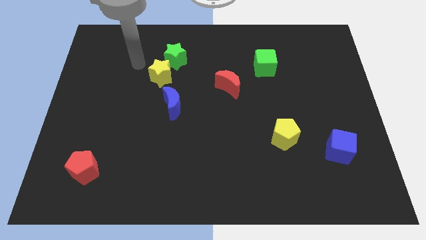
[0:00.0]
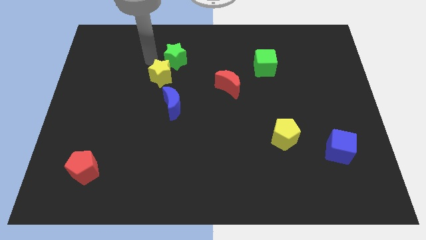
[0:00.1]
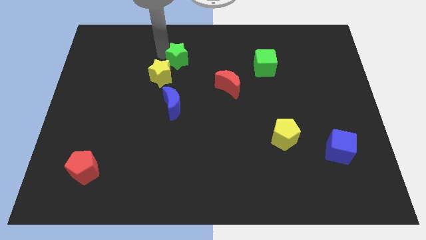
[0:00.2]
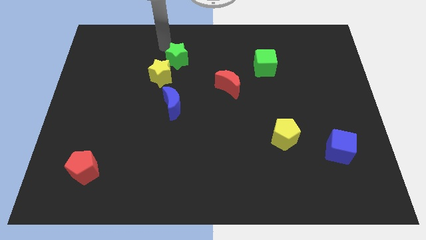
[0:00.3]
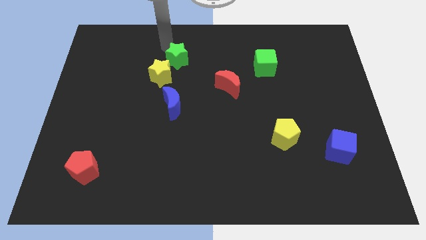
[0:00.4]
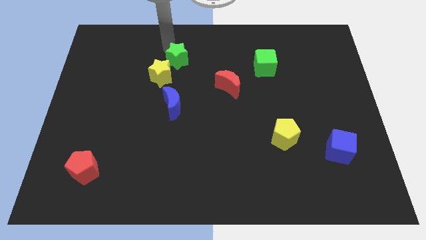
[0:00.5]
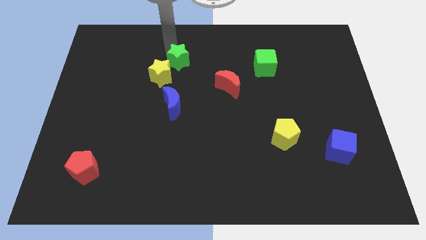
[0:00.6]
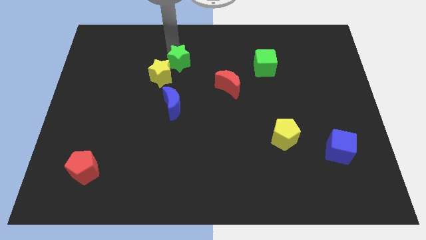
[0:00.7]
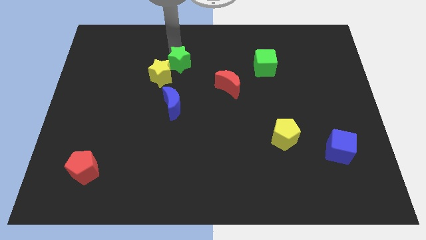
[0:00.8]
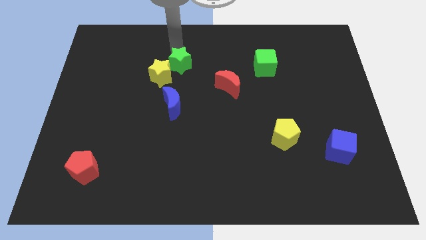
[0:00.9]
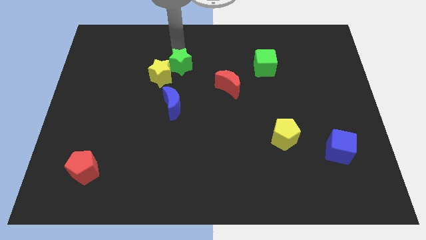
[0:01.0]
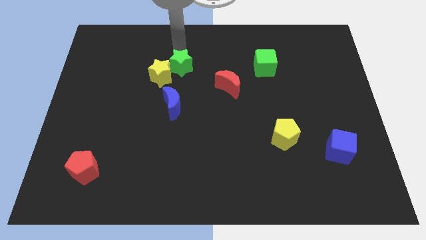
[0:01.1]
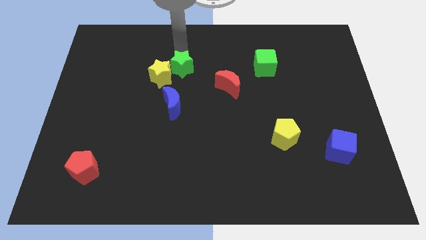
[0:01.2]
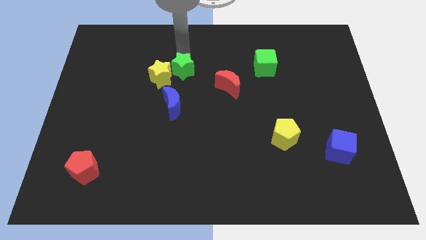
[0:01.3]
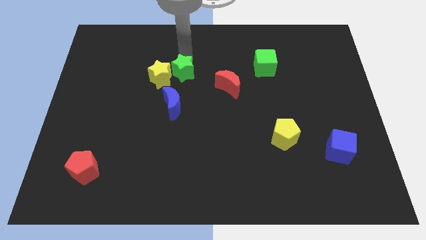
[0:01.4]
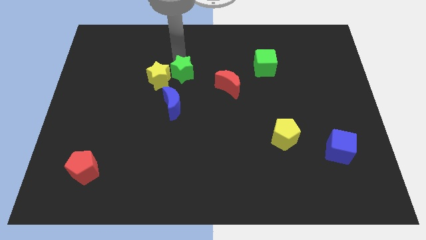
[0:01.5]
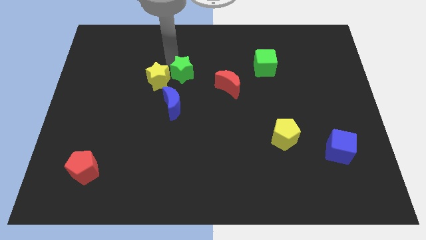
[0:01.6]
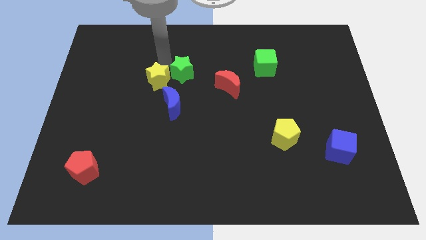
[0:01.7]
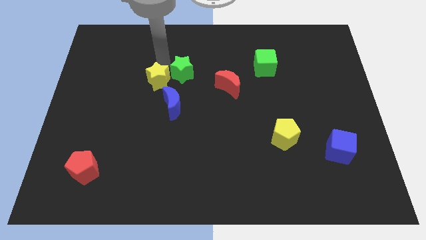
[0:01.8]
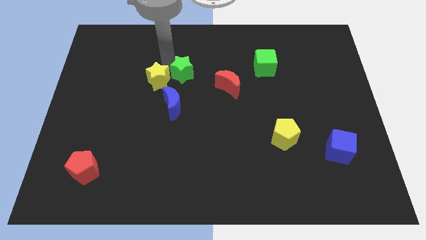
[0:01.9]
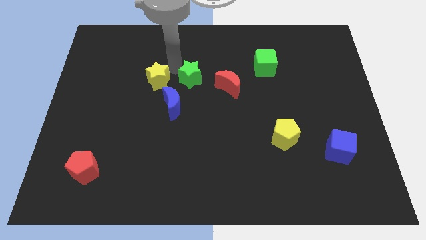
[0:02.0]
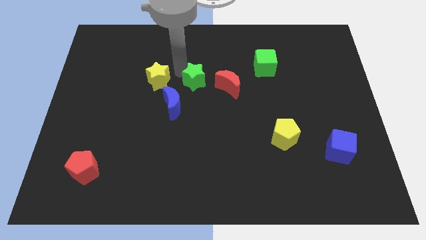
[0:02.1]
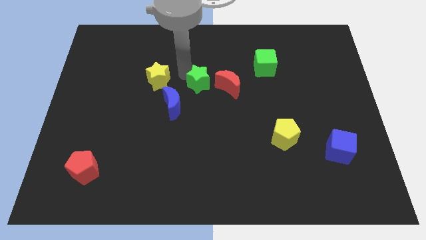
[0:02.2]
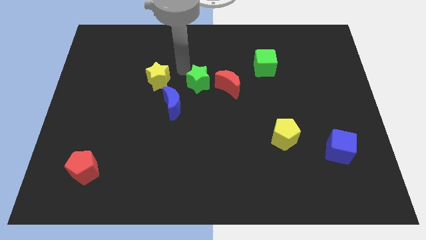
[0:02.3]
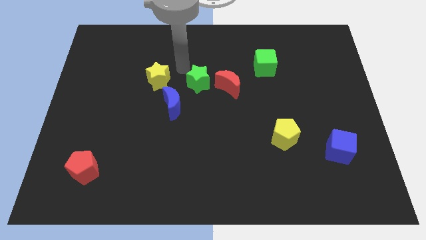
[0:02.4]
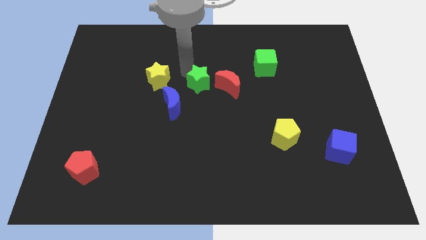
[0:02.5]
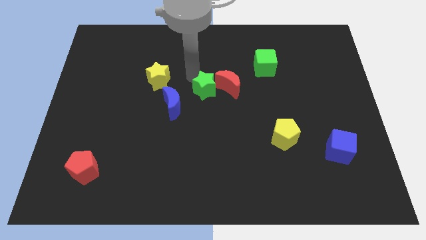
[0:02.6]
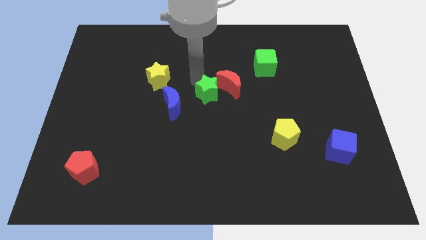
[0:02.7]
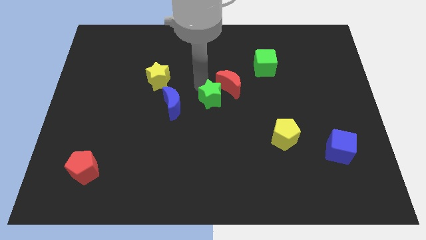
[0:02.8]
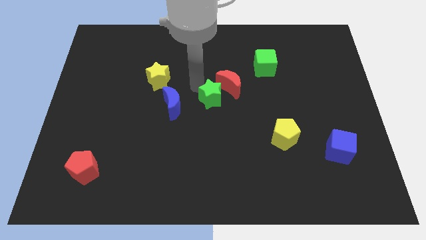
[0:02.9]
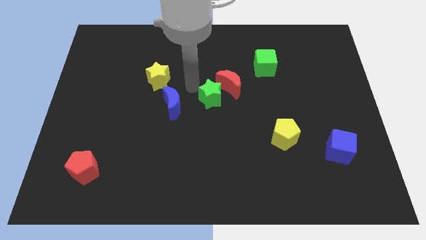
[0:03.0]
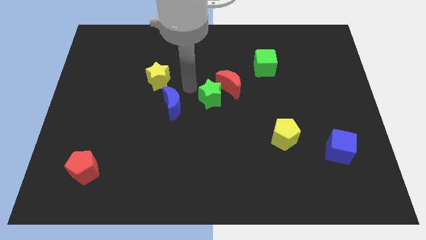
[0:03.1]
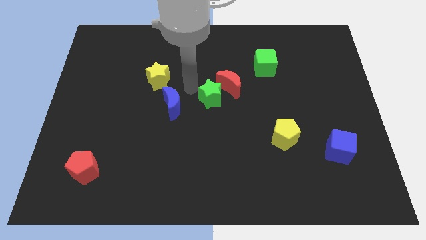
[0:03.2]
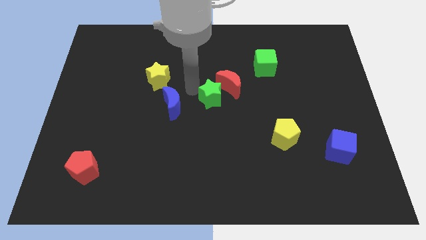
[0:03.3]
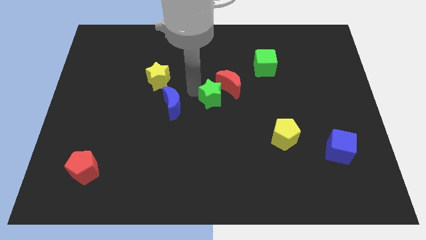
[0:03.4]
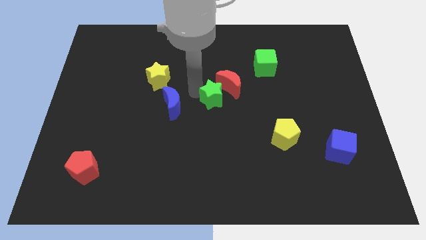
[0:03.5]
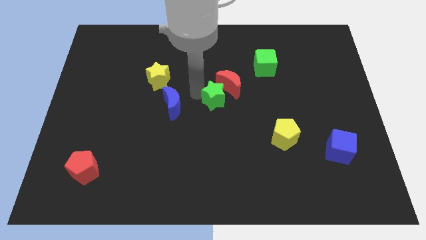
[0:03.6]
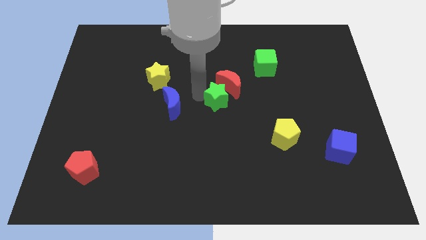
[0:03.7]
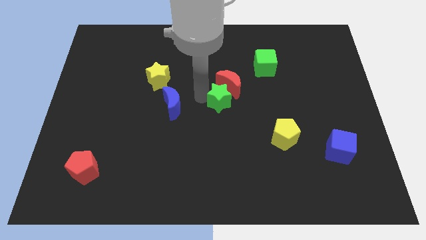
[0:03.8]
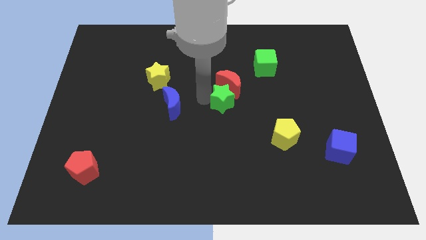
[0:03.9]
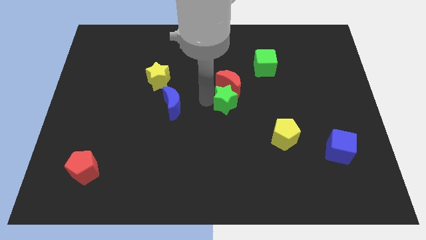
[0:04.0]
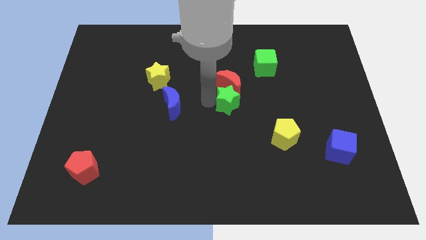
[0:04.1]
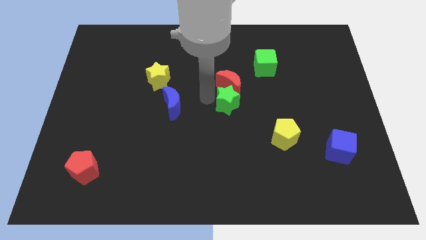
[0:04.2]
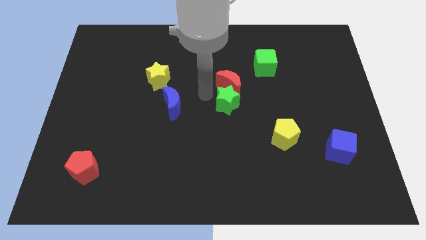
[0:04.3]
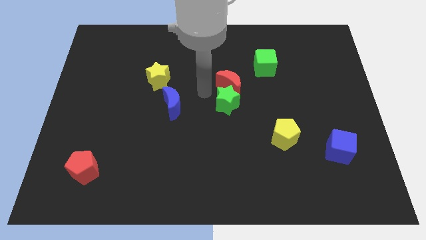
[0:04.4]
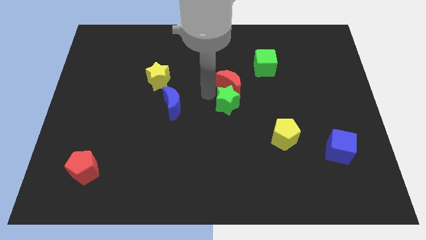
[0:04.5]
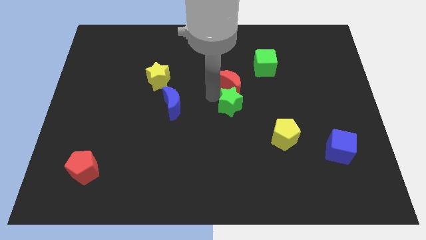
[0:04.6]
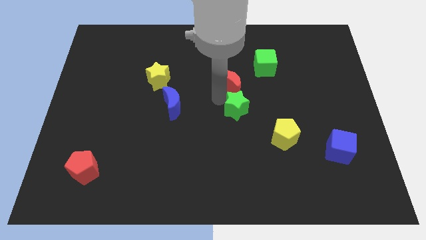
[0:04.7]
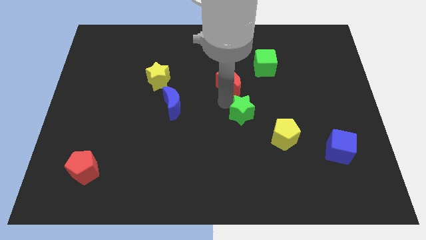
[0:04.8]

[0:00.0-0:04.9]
slide the green star diagonally up and to the left of the yellow pentagon

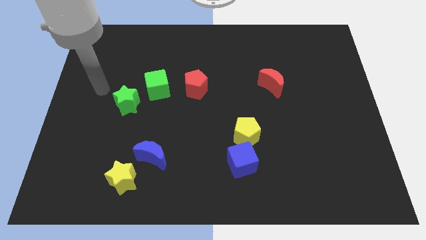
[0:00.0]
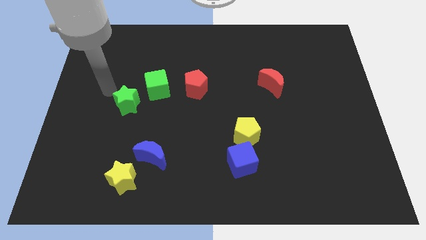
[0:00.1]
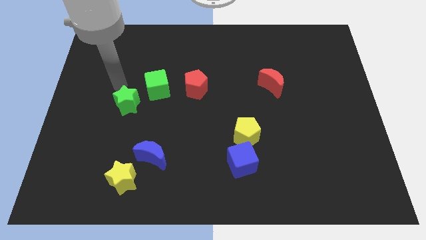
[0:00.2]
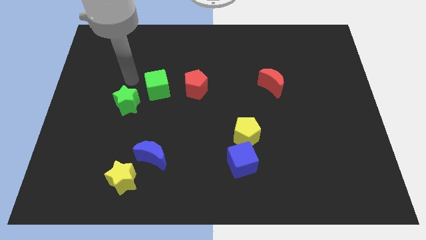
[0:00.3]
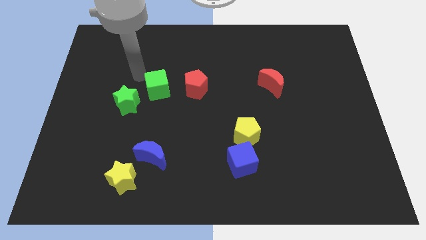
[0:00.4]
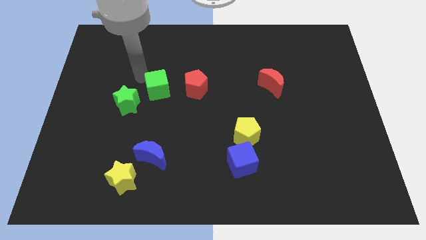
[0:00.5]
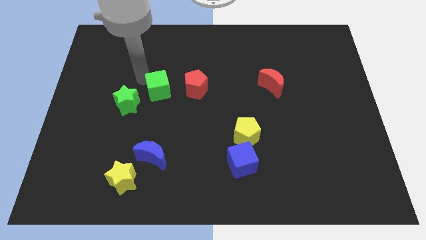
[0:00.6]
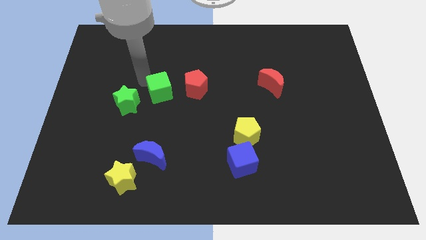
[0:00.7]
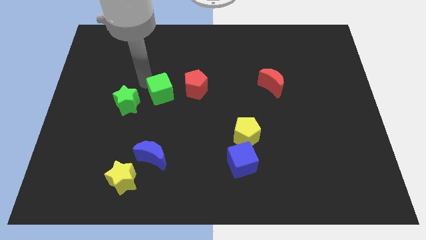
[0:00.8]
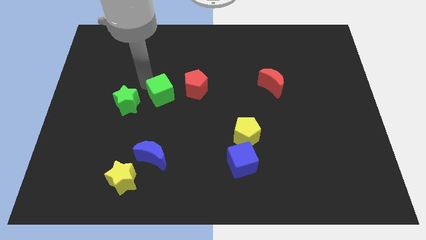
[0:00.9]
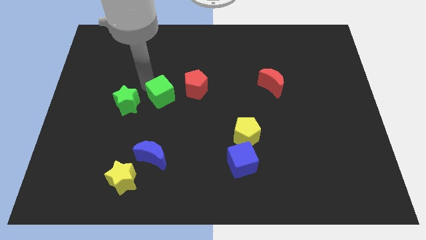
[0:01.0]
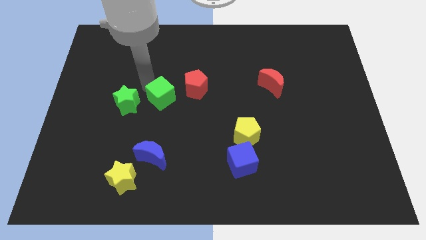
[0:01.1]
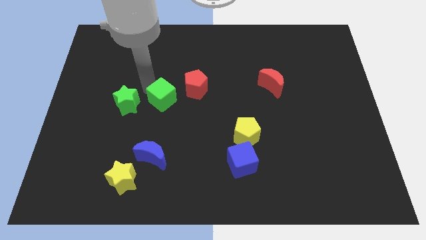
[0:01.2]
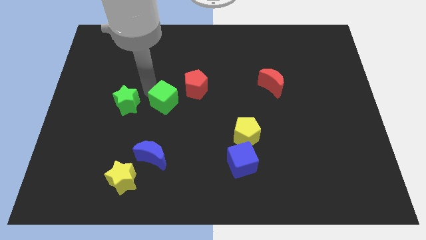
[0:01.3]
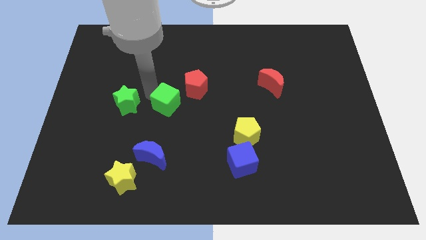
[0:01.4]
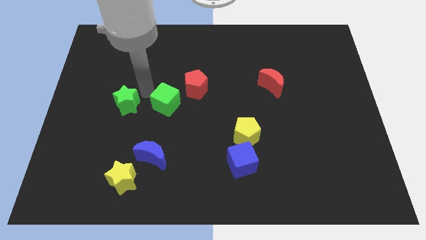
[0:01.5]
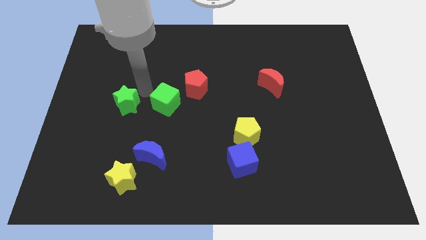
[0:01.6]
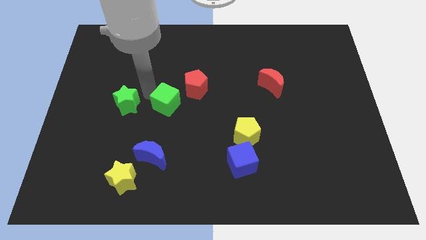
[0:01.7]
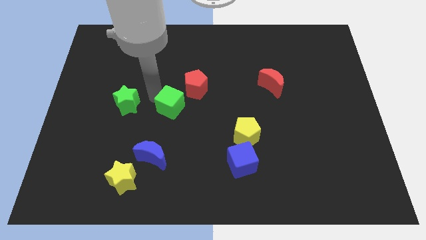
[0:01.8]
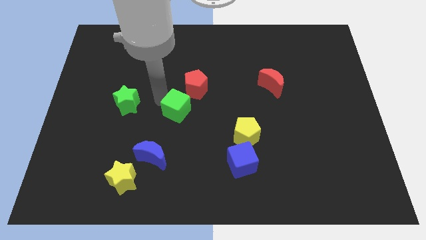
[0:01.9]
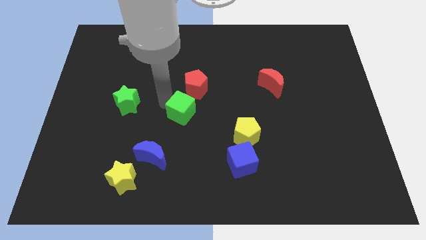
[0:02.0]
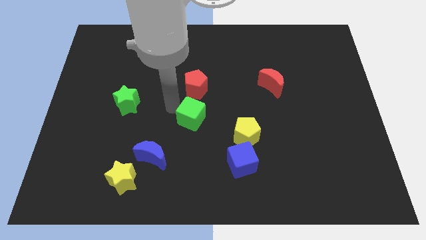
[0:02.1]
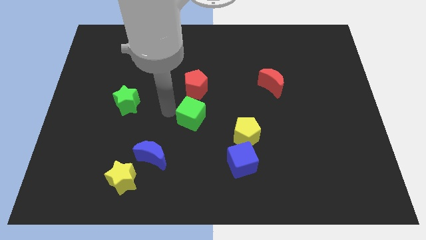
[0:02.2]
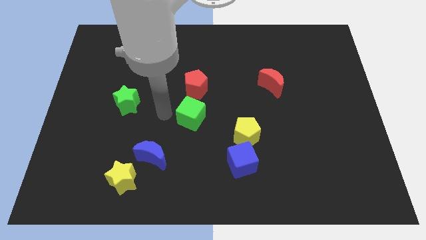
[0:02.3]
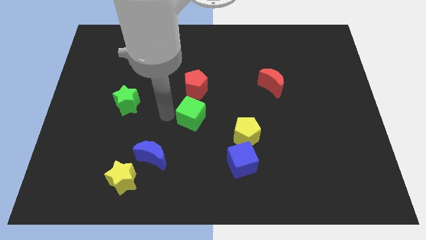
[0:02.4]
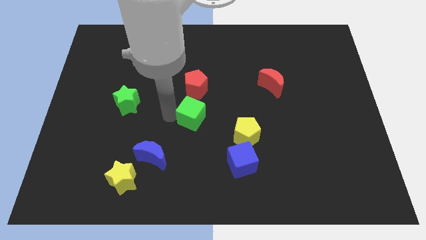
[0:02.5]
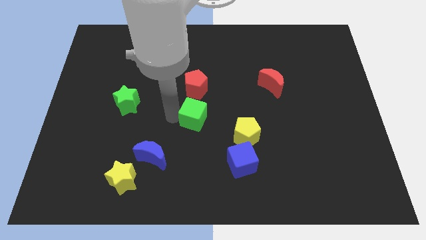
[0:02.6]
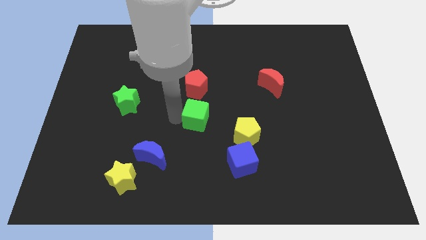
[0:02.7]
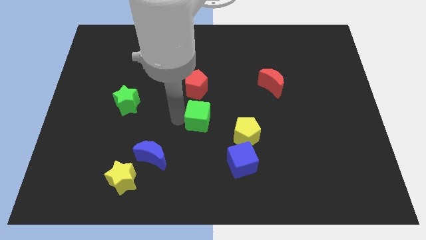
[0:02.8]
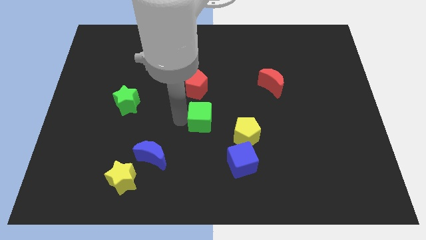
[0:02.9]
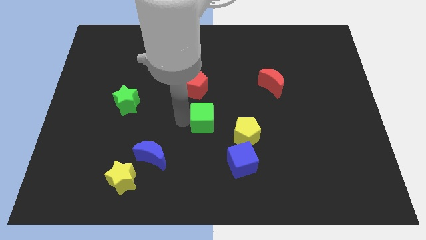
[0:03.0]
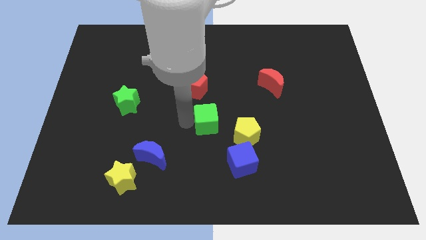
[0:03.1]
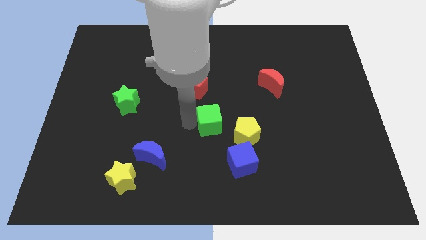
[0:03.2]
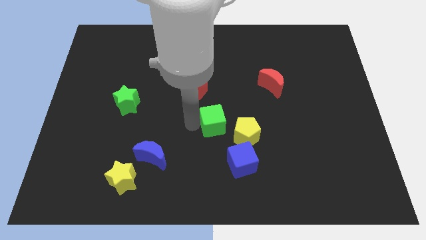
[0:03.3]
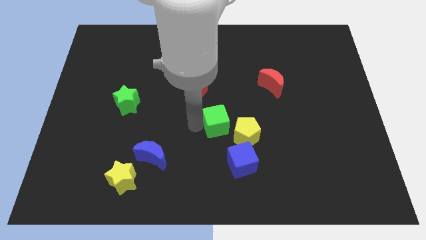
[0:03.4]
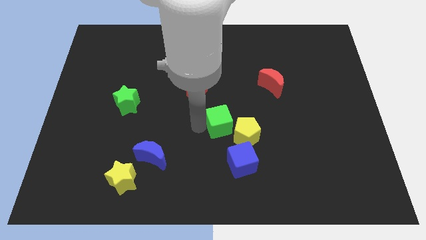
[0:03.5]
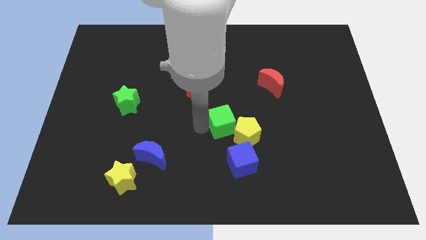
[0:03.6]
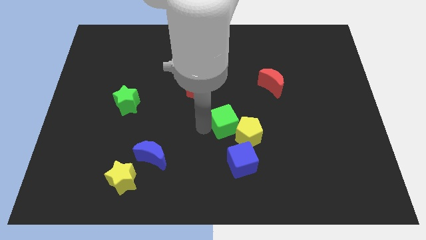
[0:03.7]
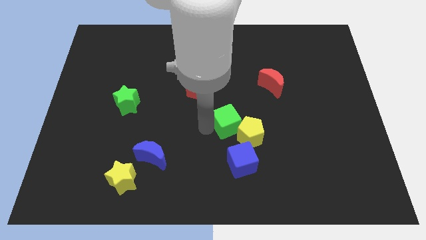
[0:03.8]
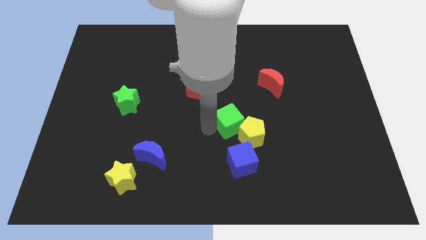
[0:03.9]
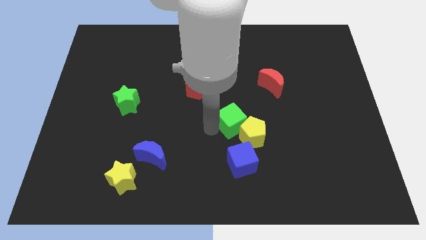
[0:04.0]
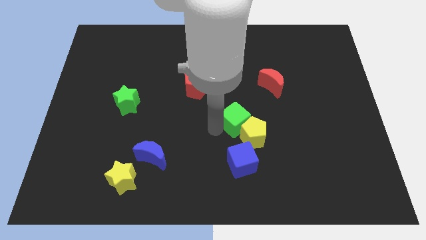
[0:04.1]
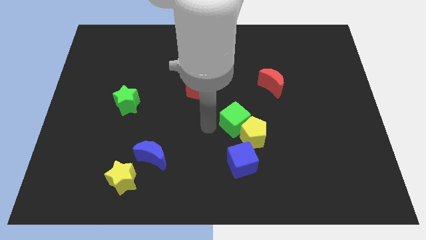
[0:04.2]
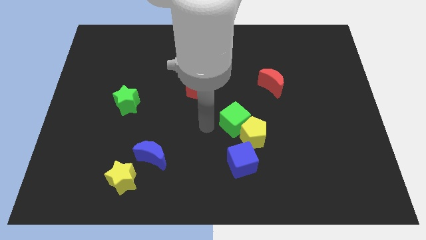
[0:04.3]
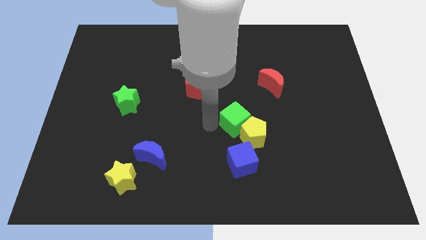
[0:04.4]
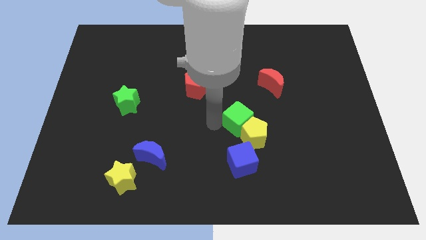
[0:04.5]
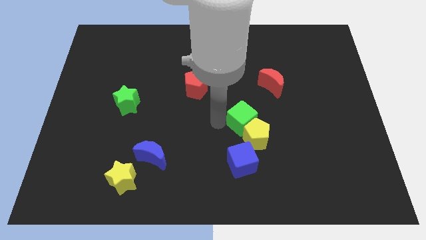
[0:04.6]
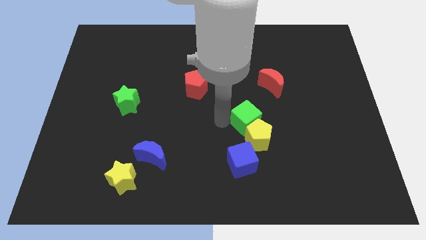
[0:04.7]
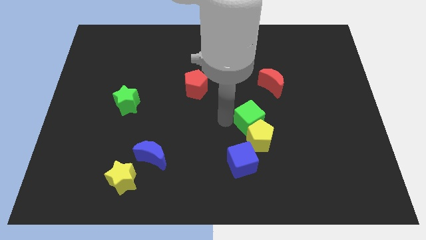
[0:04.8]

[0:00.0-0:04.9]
push the green cube diagonally up and to the right of the yellow pentagon
